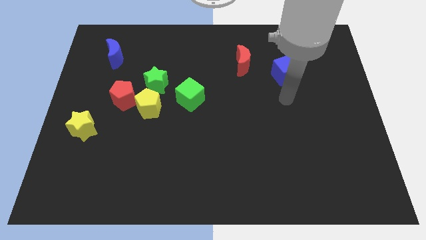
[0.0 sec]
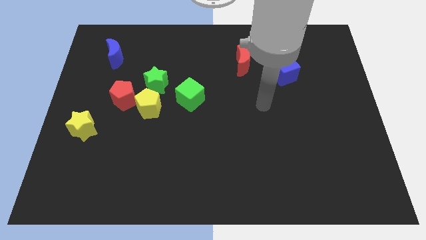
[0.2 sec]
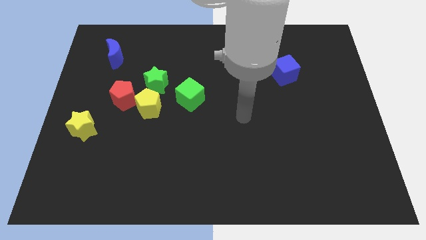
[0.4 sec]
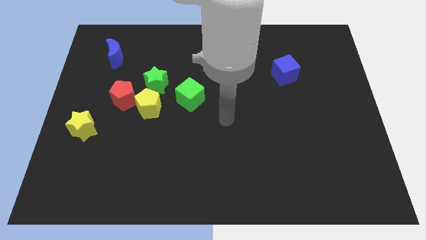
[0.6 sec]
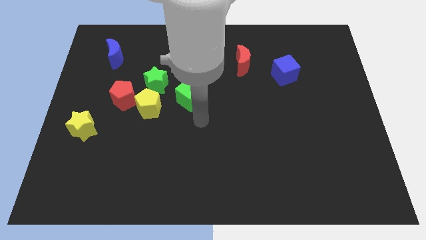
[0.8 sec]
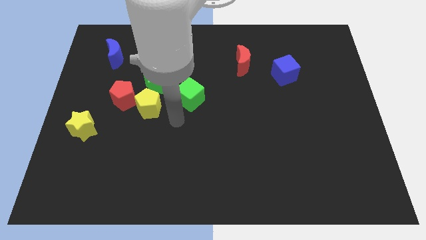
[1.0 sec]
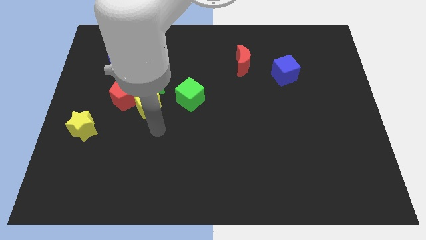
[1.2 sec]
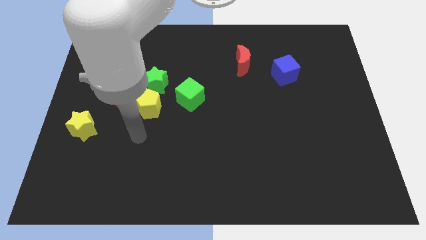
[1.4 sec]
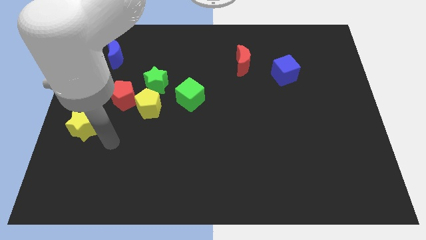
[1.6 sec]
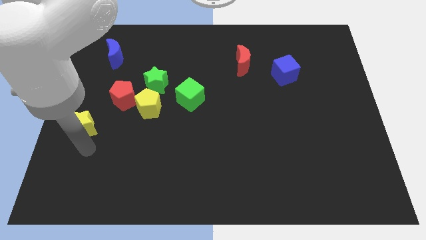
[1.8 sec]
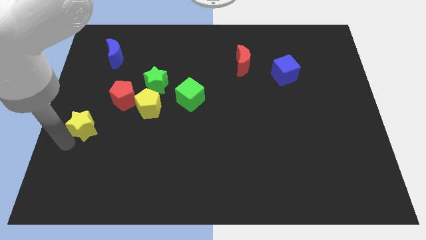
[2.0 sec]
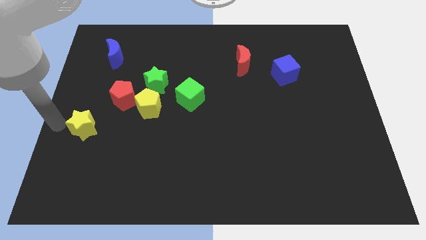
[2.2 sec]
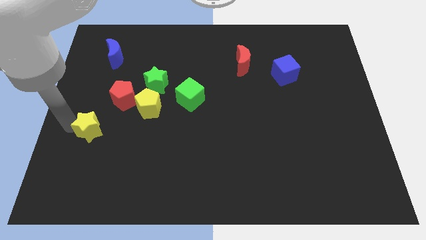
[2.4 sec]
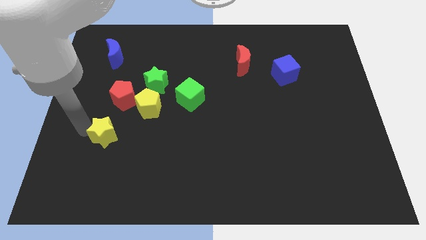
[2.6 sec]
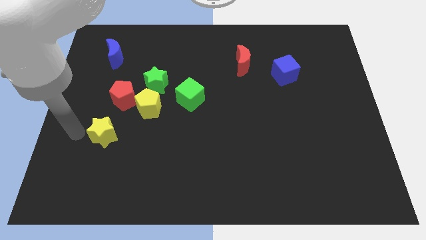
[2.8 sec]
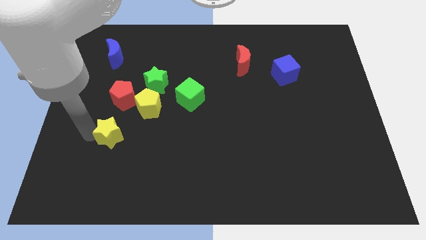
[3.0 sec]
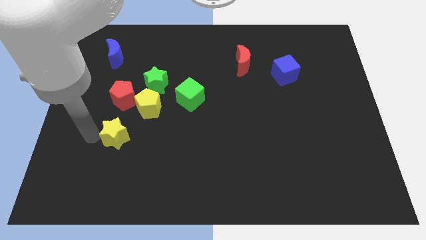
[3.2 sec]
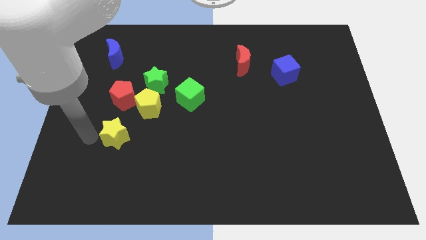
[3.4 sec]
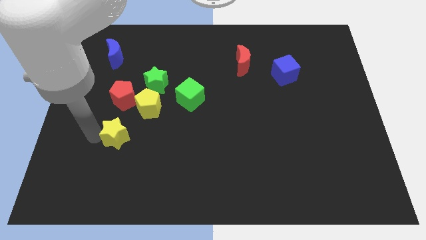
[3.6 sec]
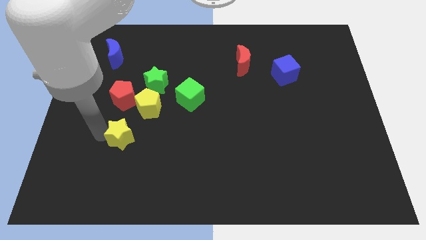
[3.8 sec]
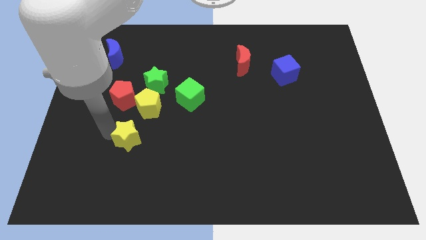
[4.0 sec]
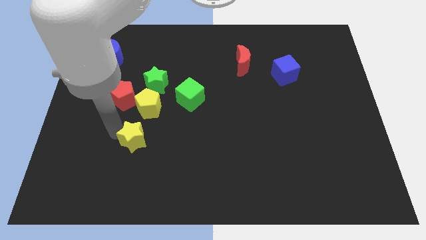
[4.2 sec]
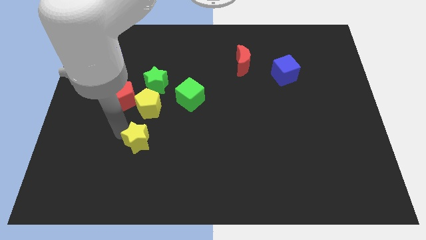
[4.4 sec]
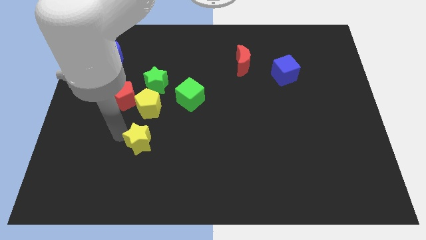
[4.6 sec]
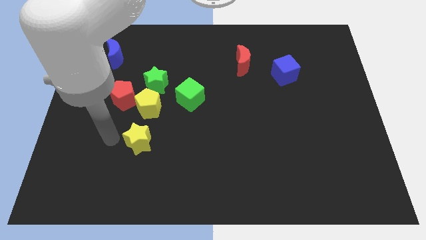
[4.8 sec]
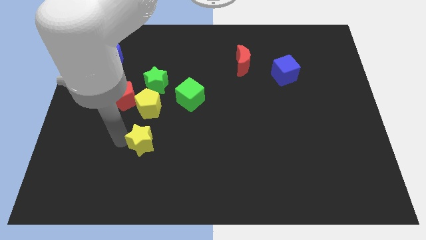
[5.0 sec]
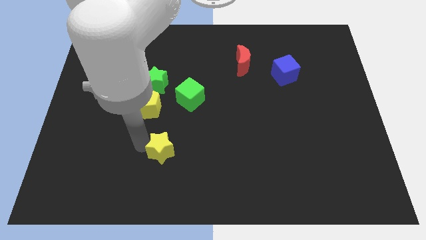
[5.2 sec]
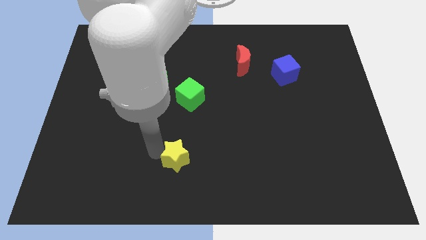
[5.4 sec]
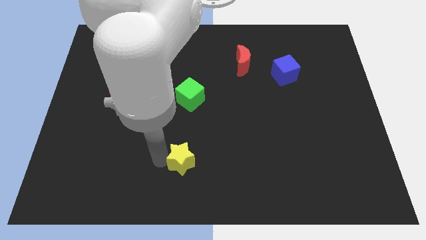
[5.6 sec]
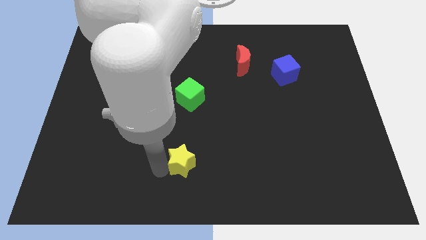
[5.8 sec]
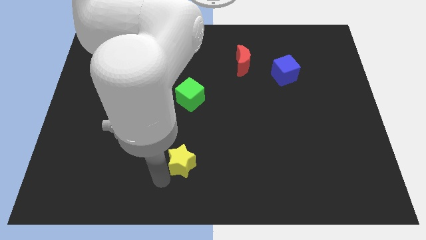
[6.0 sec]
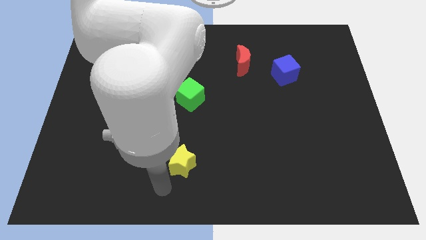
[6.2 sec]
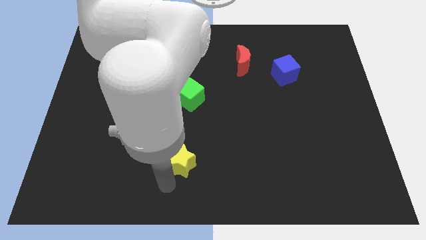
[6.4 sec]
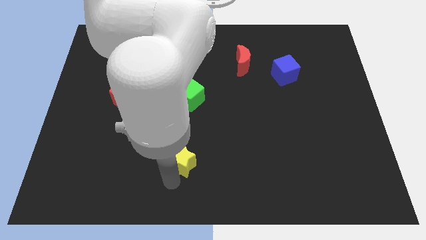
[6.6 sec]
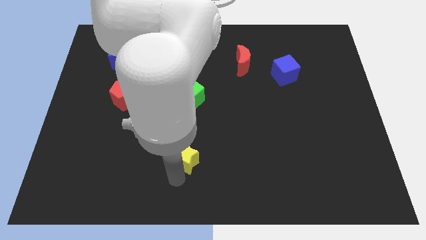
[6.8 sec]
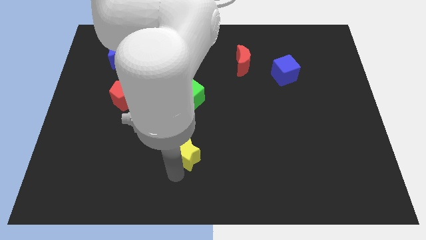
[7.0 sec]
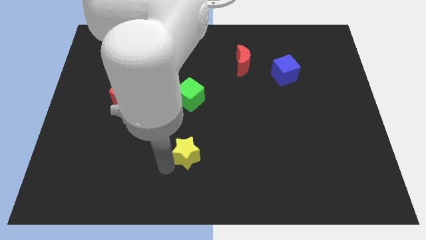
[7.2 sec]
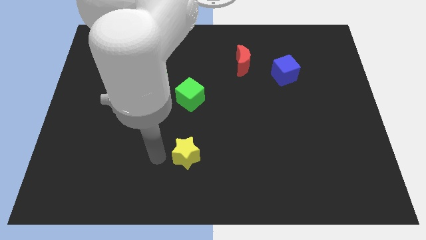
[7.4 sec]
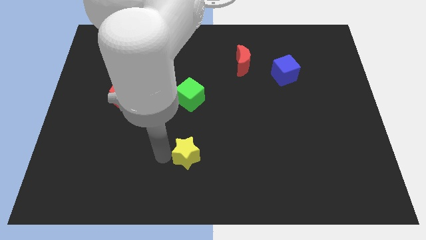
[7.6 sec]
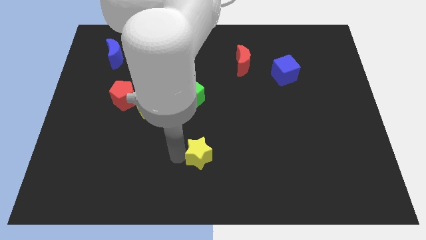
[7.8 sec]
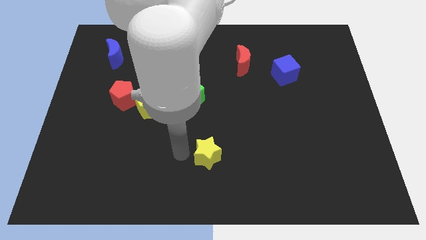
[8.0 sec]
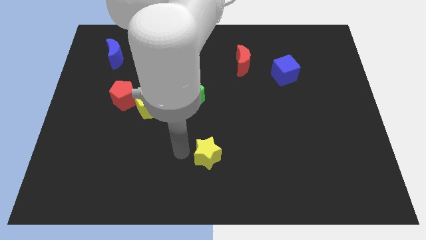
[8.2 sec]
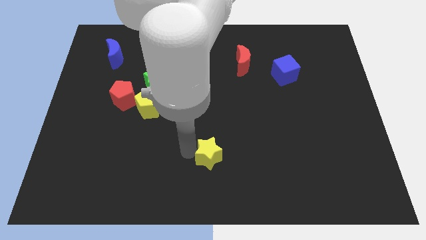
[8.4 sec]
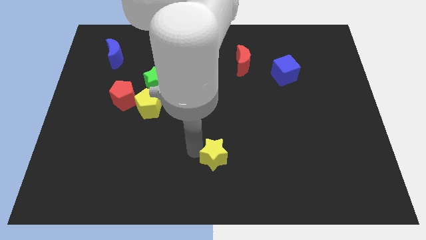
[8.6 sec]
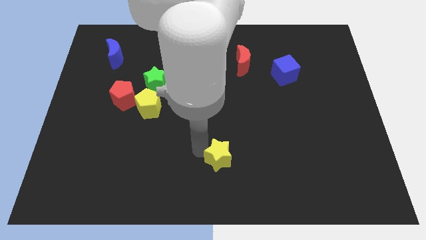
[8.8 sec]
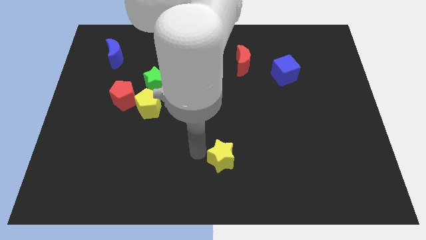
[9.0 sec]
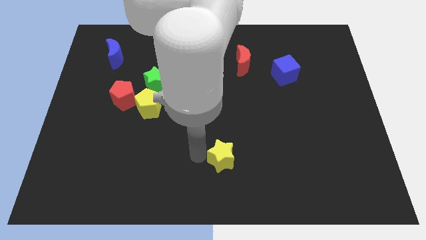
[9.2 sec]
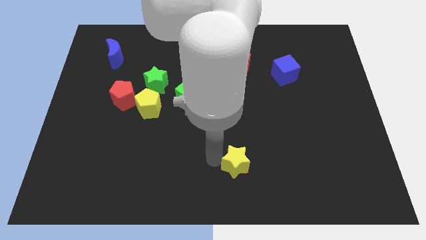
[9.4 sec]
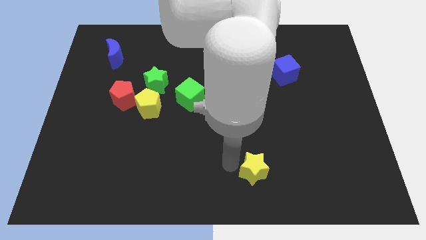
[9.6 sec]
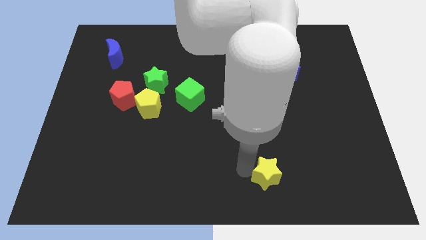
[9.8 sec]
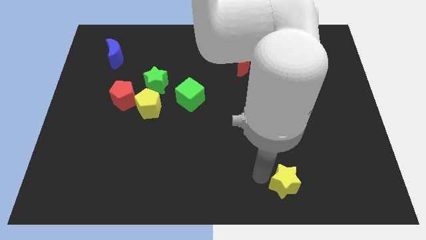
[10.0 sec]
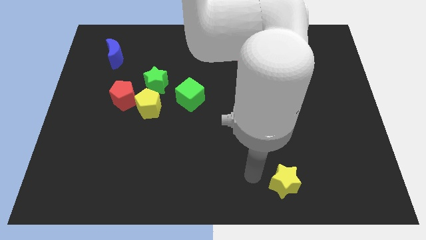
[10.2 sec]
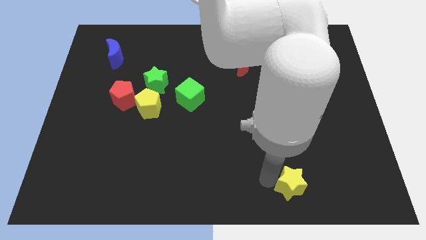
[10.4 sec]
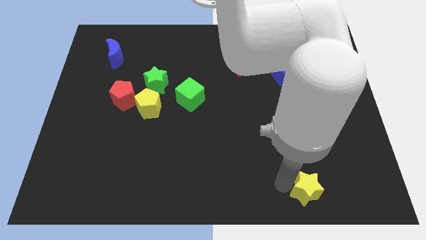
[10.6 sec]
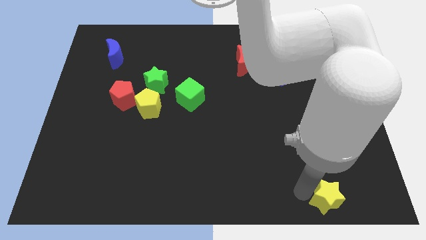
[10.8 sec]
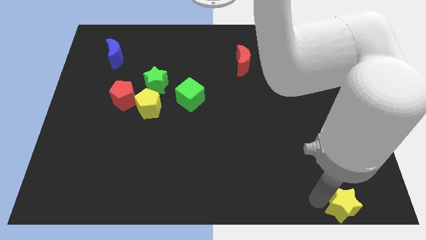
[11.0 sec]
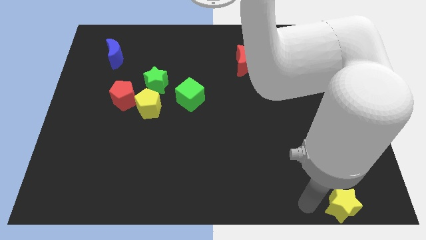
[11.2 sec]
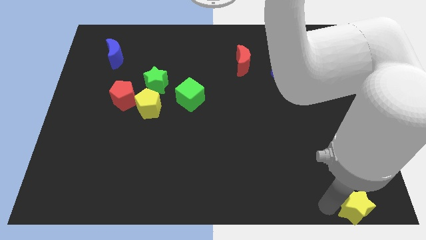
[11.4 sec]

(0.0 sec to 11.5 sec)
slide the yellow star to the bottom right of the board

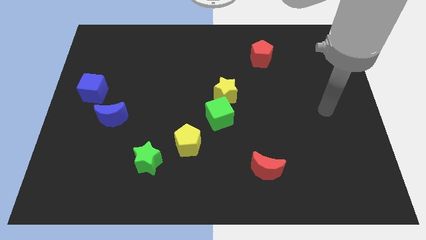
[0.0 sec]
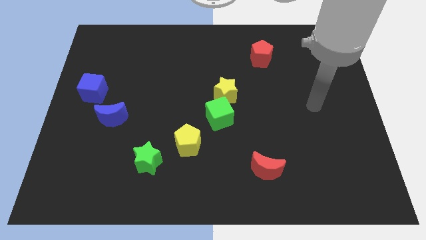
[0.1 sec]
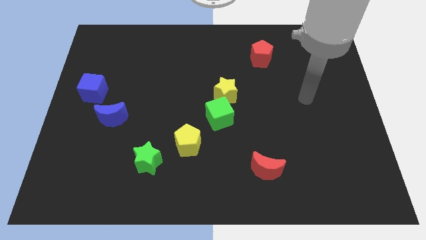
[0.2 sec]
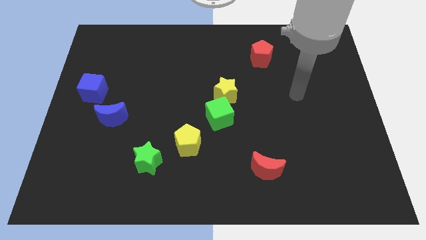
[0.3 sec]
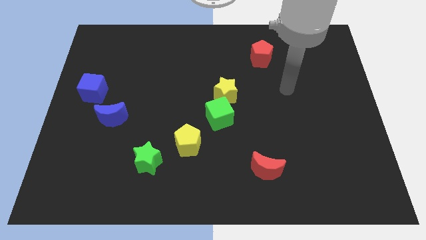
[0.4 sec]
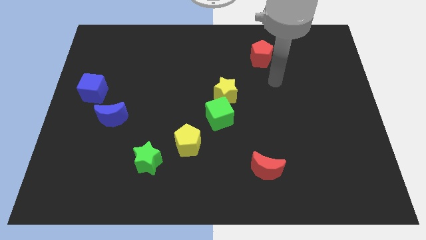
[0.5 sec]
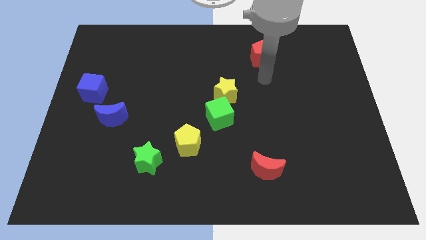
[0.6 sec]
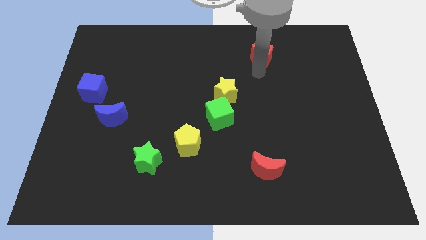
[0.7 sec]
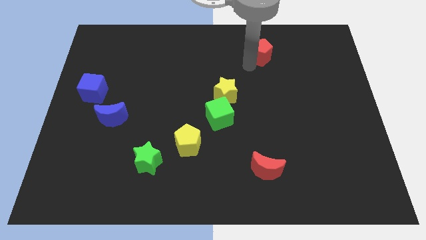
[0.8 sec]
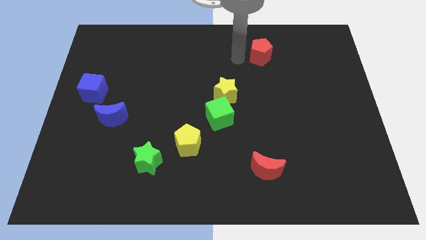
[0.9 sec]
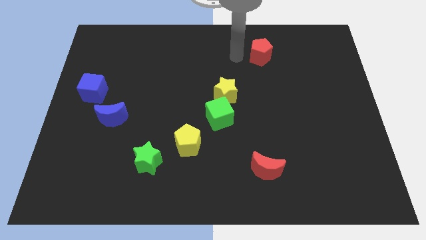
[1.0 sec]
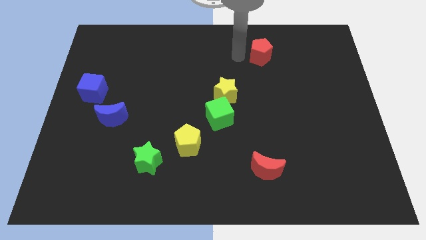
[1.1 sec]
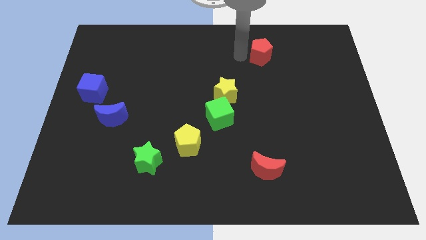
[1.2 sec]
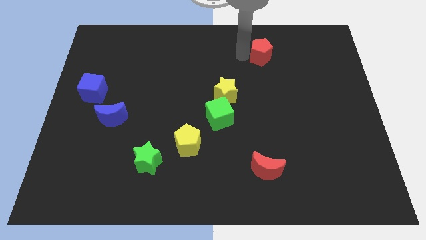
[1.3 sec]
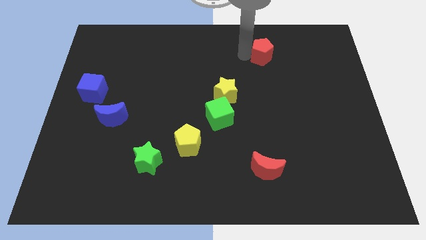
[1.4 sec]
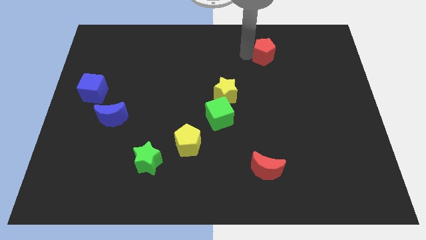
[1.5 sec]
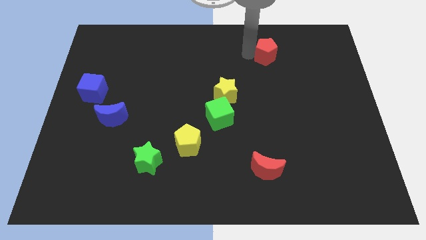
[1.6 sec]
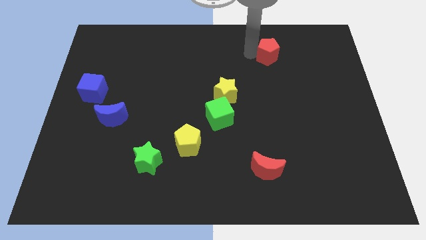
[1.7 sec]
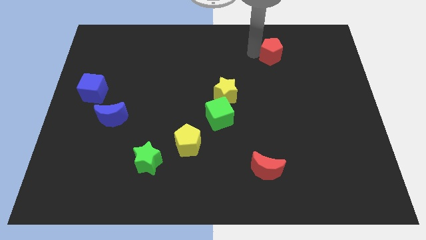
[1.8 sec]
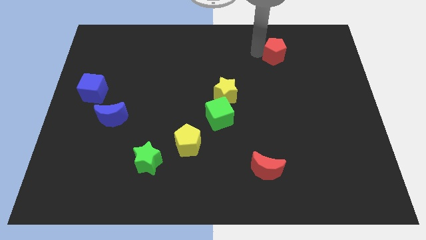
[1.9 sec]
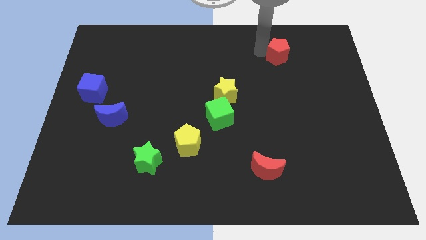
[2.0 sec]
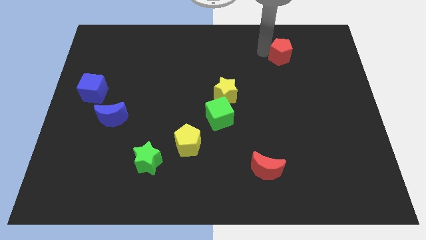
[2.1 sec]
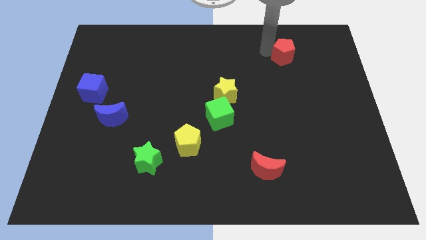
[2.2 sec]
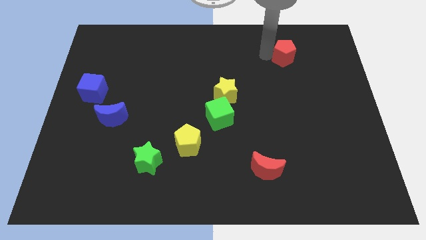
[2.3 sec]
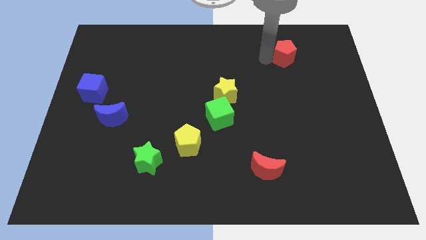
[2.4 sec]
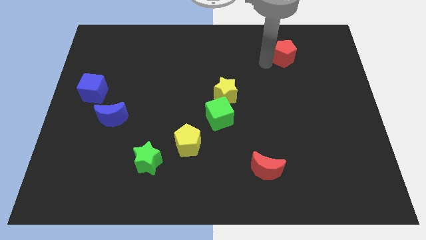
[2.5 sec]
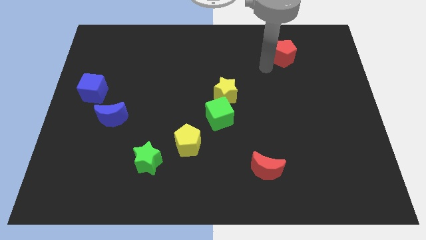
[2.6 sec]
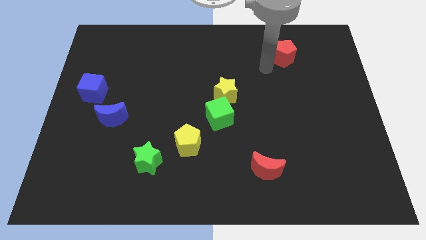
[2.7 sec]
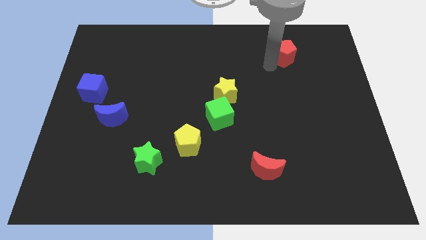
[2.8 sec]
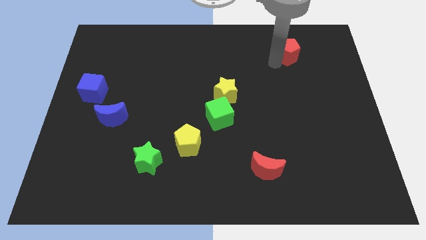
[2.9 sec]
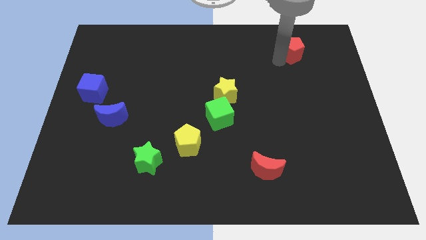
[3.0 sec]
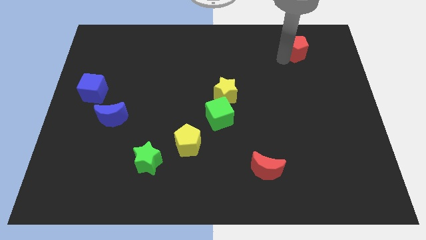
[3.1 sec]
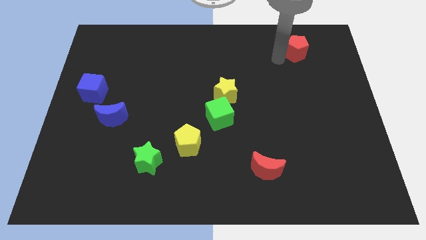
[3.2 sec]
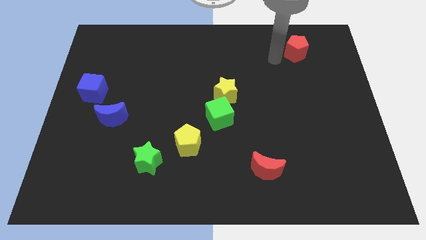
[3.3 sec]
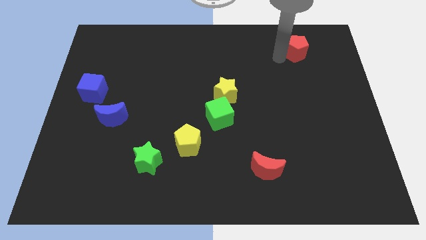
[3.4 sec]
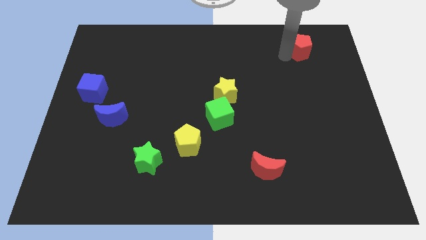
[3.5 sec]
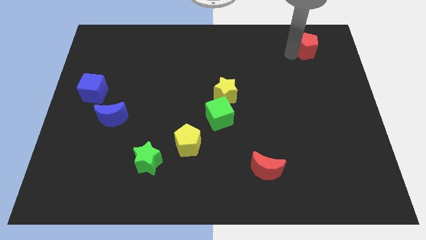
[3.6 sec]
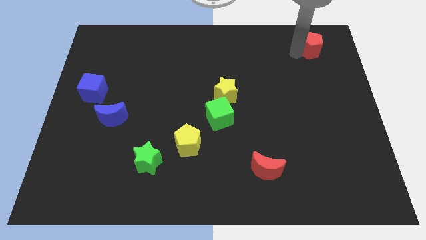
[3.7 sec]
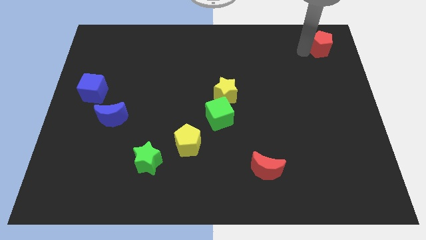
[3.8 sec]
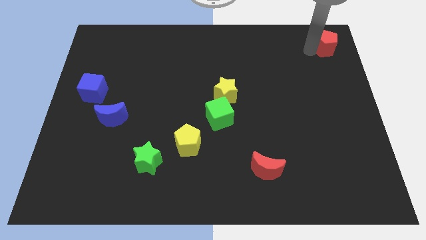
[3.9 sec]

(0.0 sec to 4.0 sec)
push the red pentagon to the top right of the board
